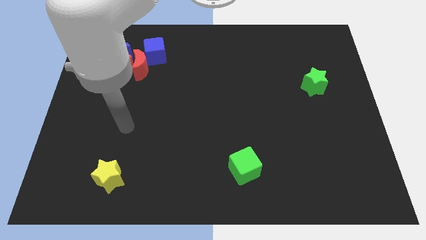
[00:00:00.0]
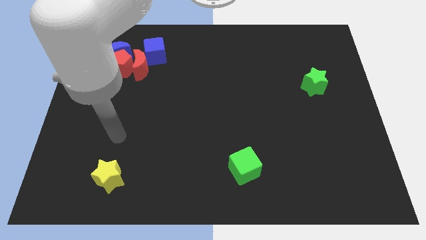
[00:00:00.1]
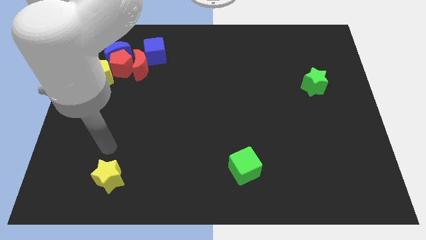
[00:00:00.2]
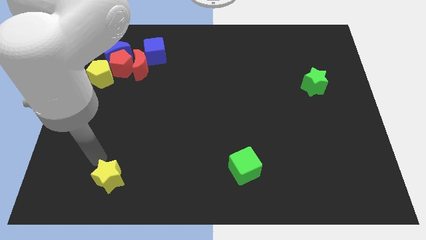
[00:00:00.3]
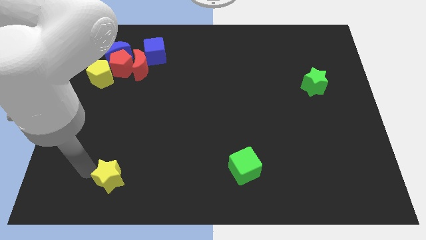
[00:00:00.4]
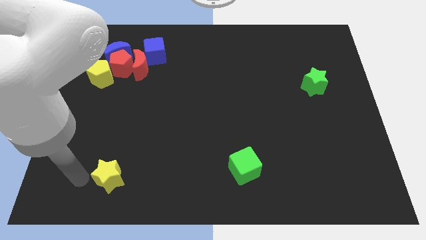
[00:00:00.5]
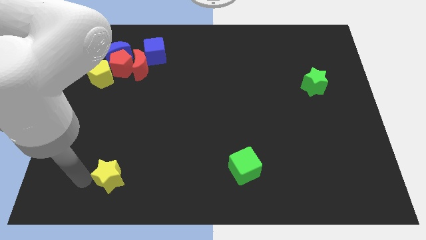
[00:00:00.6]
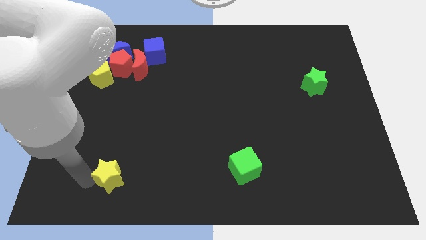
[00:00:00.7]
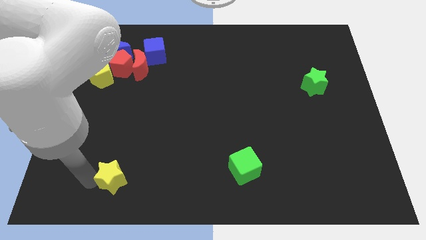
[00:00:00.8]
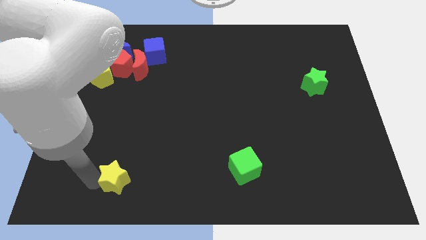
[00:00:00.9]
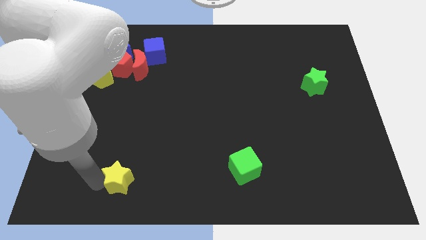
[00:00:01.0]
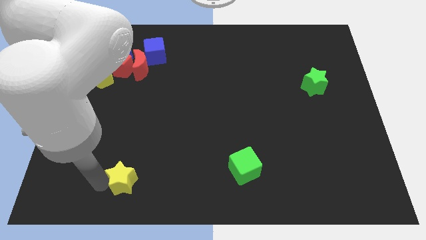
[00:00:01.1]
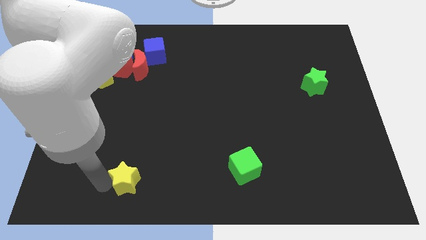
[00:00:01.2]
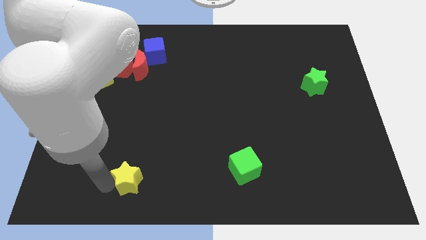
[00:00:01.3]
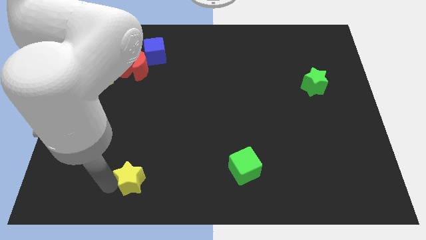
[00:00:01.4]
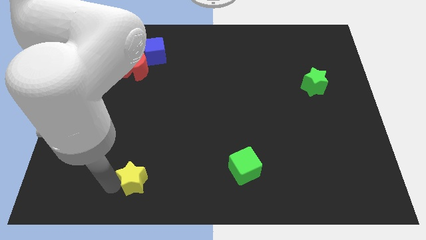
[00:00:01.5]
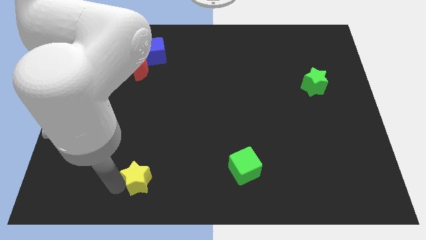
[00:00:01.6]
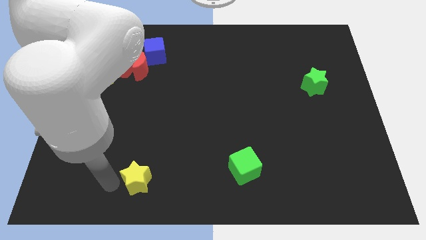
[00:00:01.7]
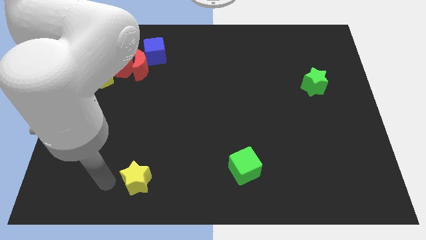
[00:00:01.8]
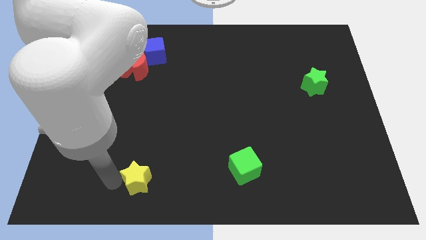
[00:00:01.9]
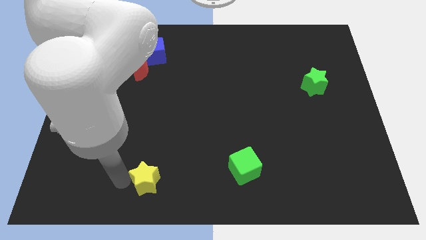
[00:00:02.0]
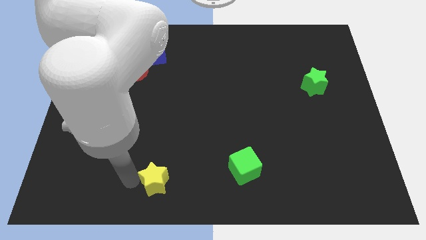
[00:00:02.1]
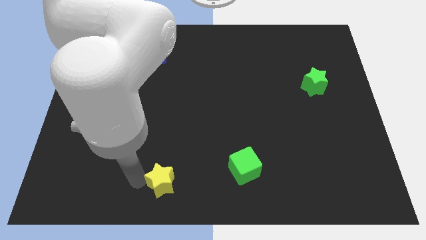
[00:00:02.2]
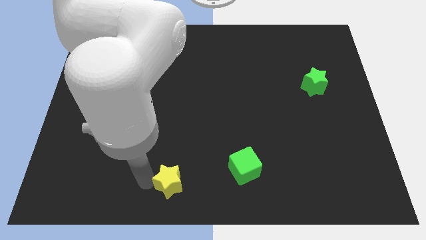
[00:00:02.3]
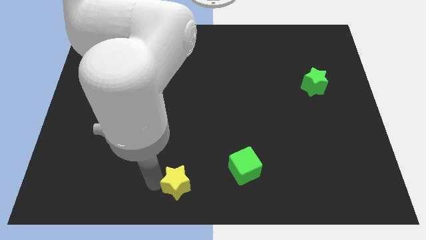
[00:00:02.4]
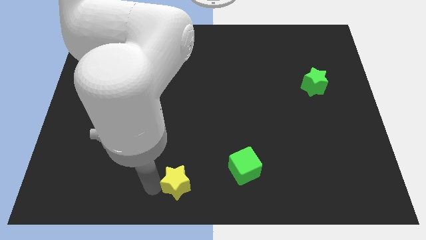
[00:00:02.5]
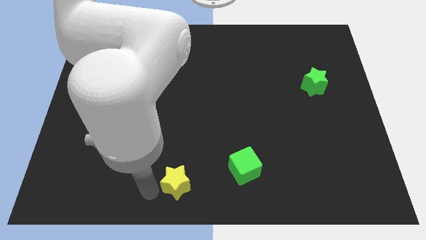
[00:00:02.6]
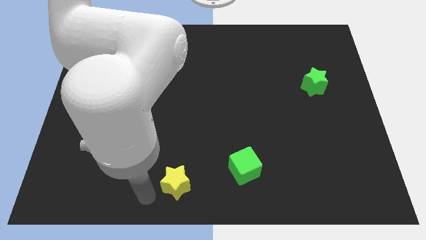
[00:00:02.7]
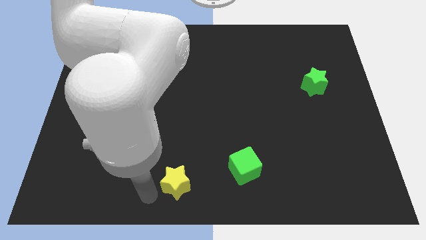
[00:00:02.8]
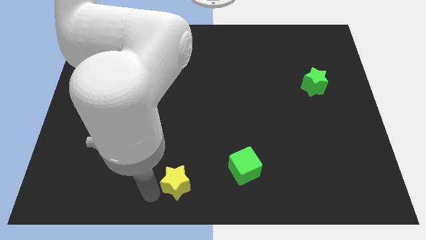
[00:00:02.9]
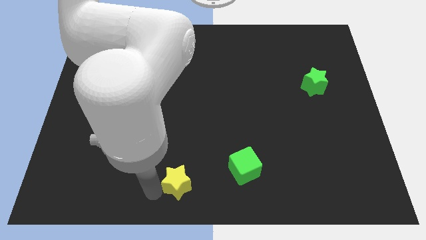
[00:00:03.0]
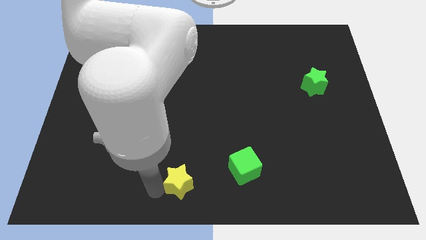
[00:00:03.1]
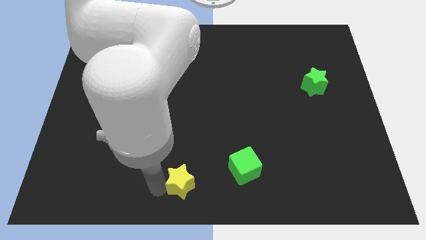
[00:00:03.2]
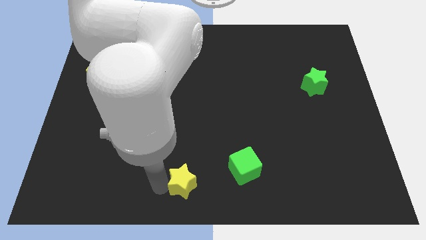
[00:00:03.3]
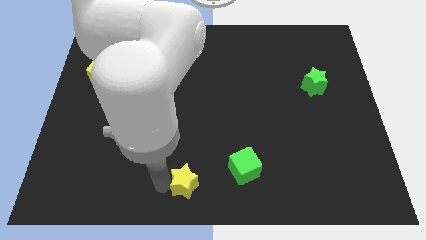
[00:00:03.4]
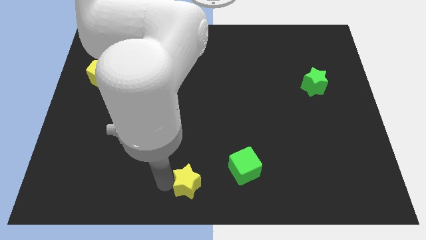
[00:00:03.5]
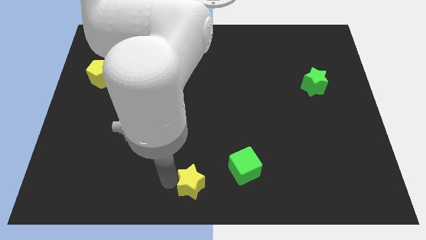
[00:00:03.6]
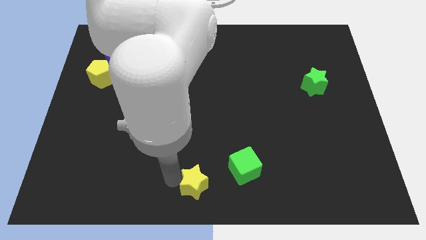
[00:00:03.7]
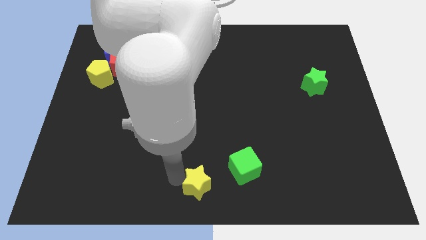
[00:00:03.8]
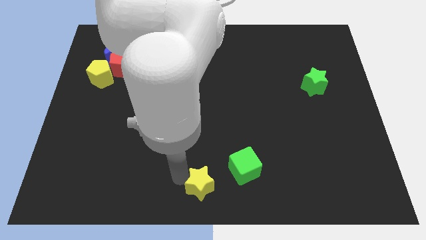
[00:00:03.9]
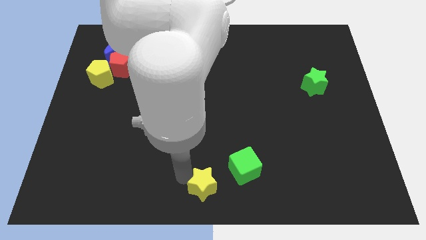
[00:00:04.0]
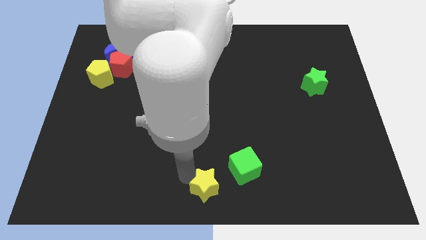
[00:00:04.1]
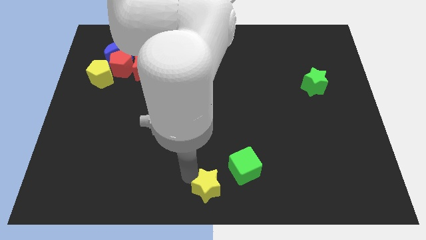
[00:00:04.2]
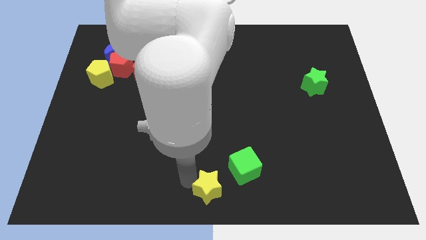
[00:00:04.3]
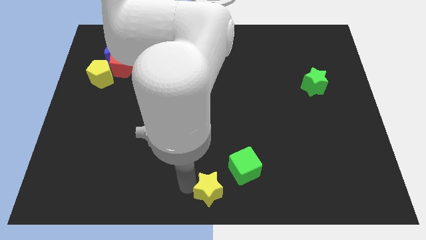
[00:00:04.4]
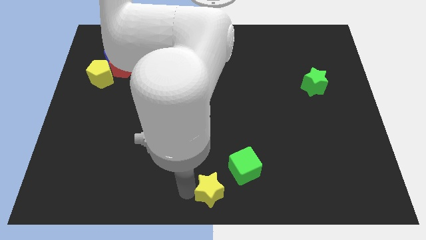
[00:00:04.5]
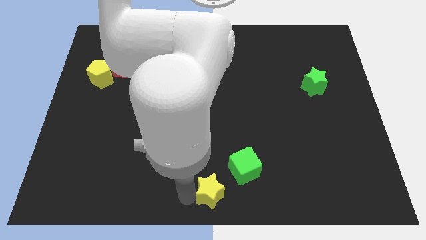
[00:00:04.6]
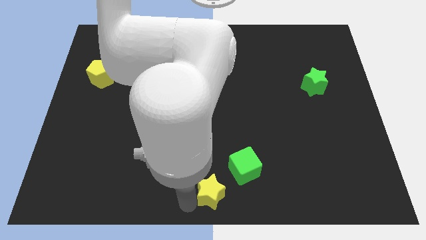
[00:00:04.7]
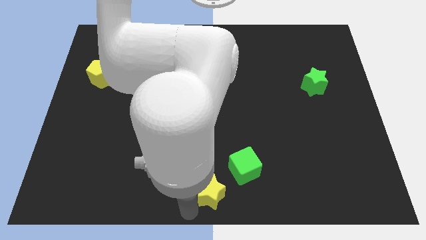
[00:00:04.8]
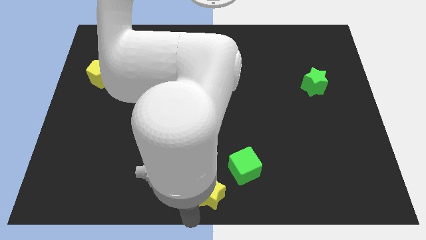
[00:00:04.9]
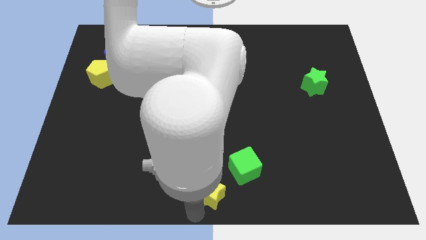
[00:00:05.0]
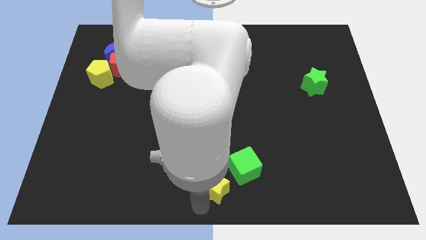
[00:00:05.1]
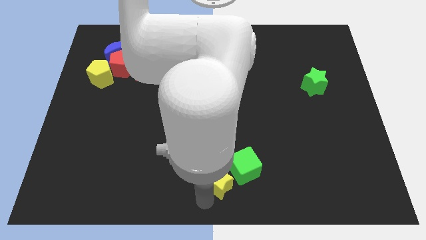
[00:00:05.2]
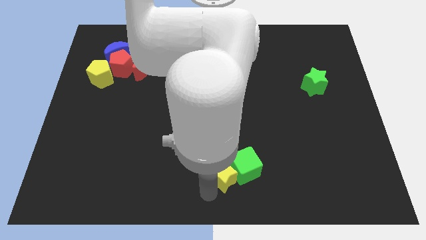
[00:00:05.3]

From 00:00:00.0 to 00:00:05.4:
put the yellow star next to the green cube

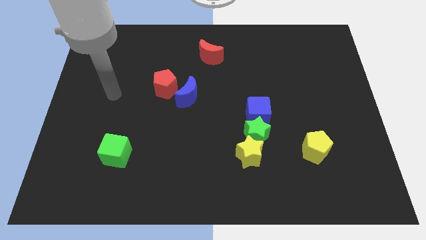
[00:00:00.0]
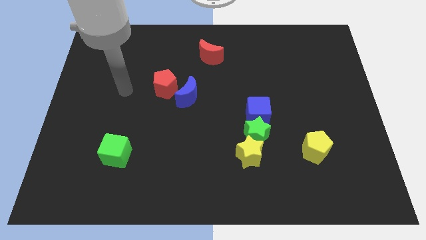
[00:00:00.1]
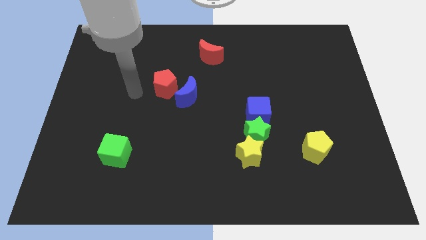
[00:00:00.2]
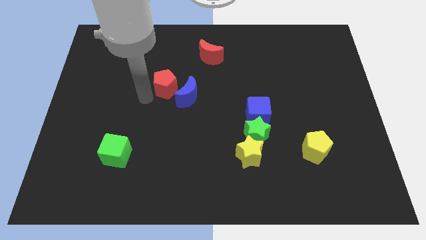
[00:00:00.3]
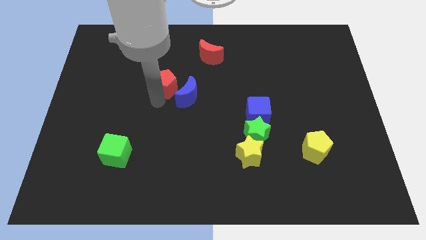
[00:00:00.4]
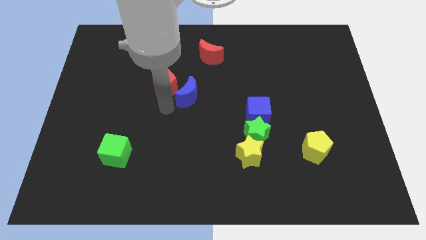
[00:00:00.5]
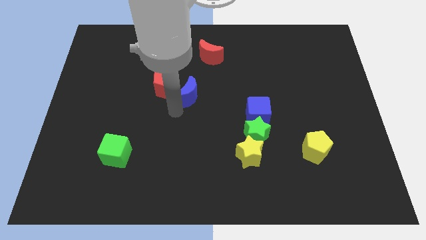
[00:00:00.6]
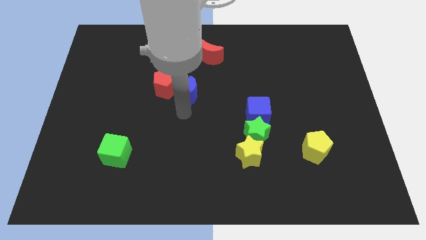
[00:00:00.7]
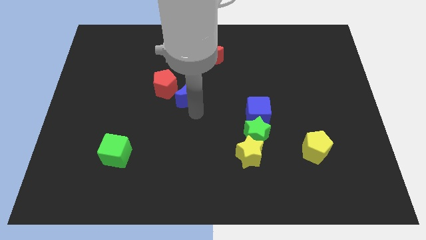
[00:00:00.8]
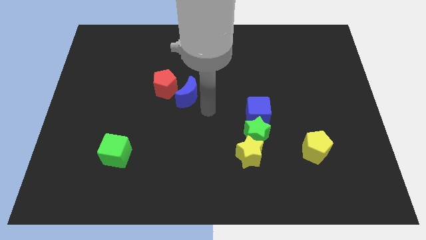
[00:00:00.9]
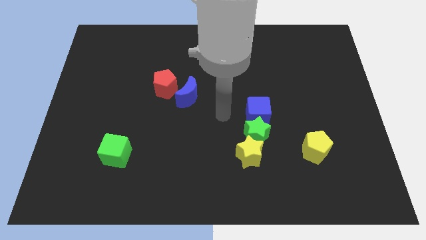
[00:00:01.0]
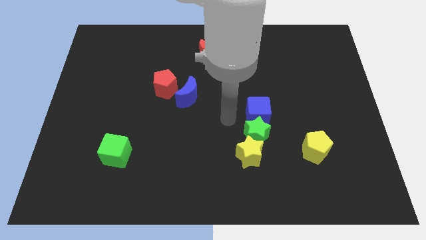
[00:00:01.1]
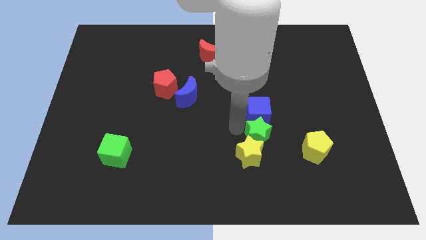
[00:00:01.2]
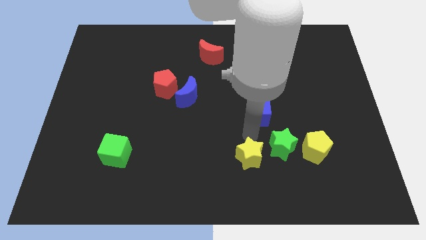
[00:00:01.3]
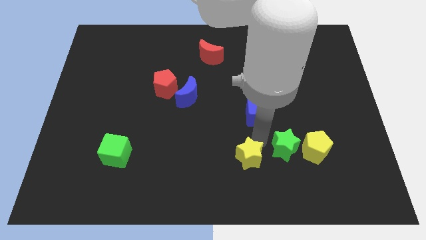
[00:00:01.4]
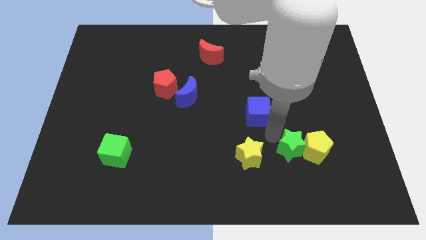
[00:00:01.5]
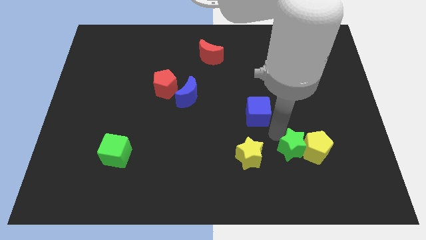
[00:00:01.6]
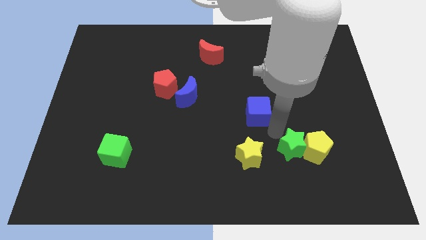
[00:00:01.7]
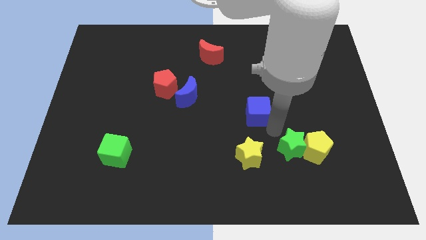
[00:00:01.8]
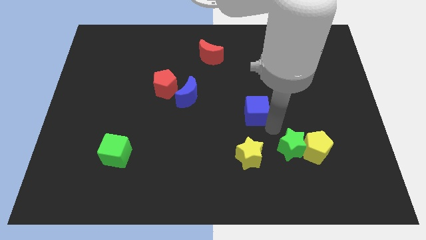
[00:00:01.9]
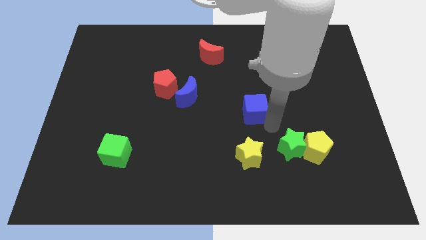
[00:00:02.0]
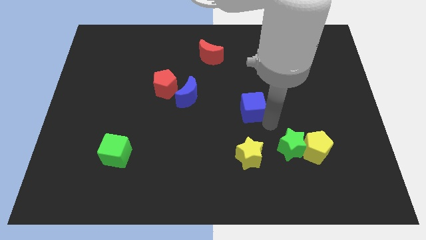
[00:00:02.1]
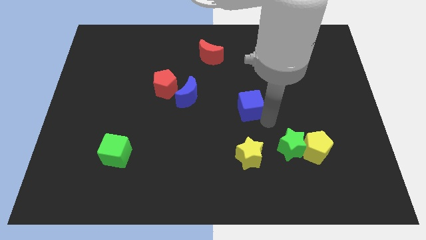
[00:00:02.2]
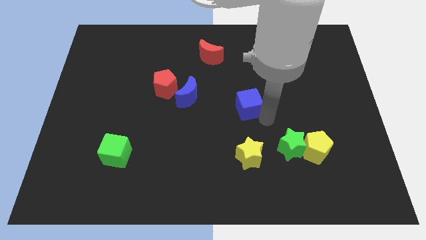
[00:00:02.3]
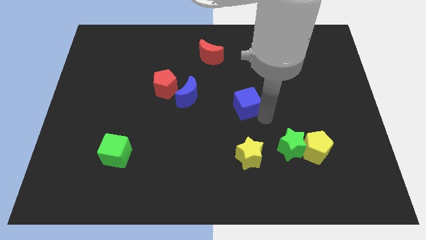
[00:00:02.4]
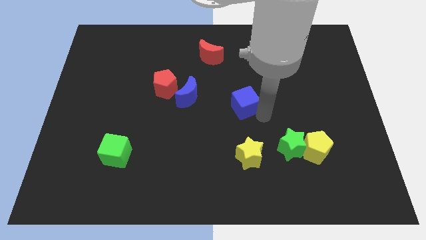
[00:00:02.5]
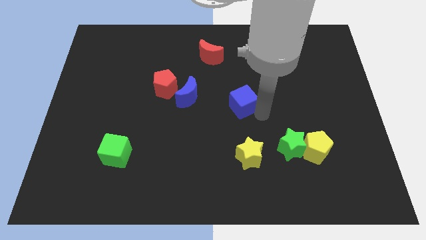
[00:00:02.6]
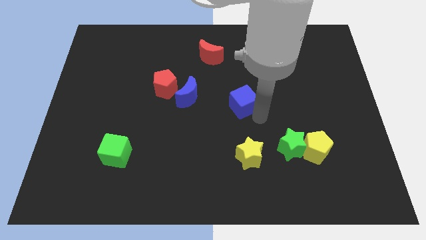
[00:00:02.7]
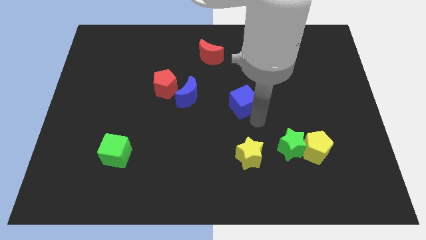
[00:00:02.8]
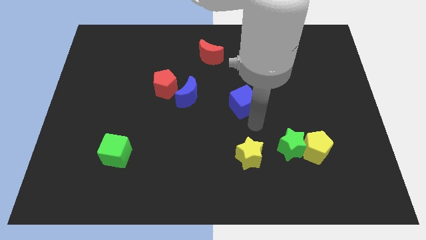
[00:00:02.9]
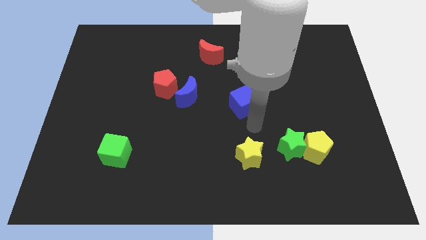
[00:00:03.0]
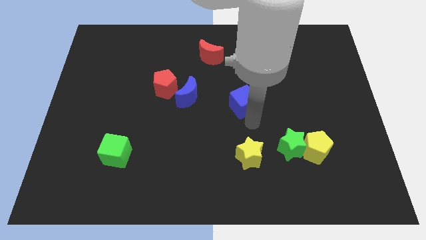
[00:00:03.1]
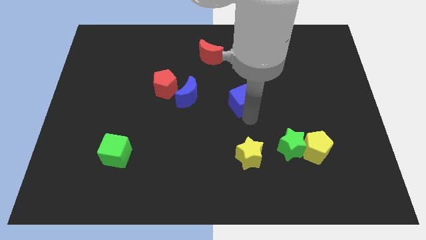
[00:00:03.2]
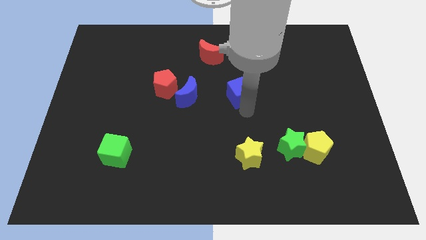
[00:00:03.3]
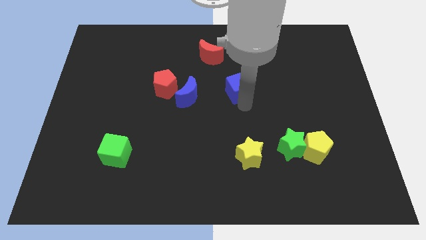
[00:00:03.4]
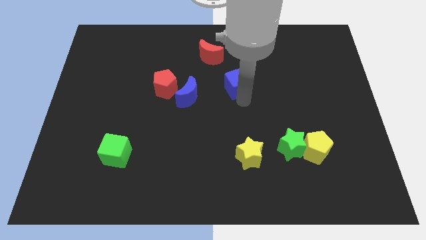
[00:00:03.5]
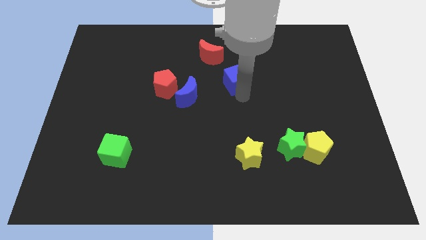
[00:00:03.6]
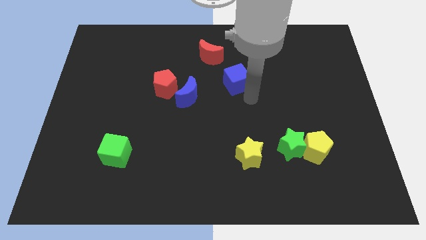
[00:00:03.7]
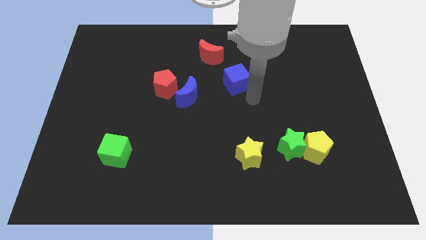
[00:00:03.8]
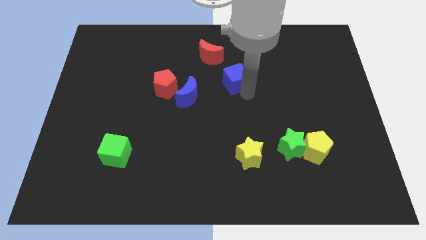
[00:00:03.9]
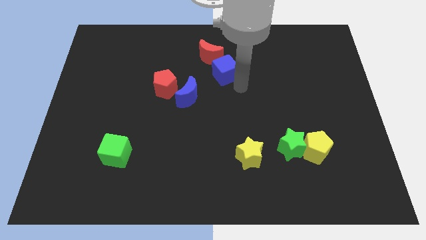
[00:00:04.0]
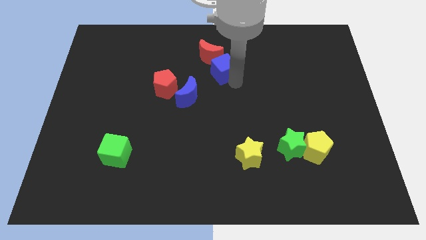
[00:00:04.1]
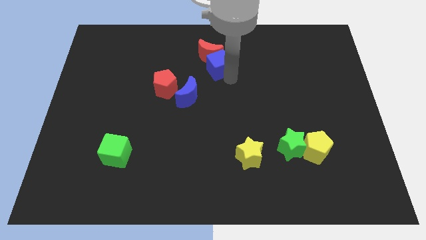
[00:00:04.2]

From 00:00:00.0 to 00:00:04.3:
push the blue cube close to the red moon
